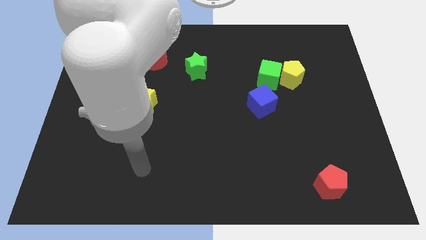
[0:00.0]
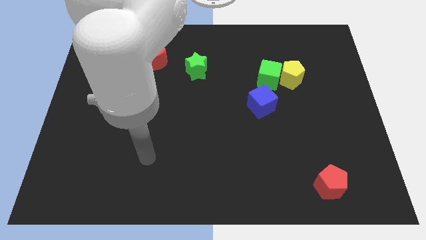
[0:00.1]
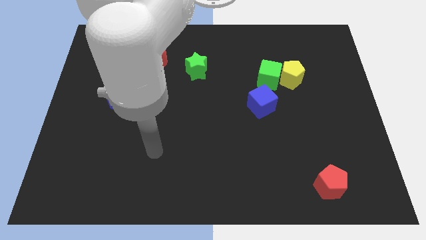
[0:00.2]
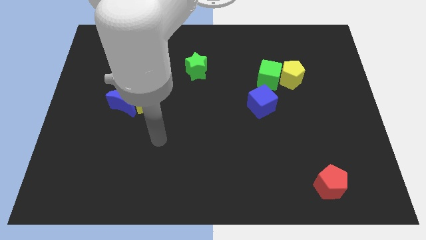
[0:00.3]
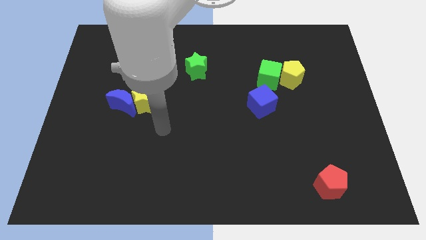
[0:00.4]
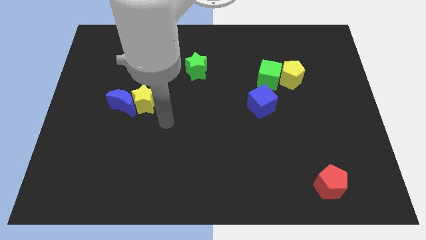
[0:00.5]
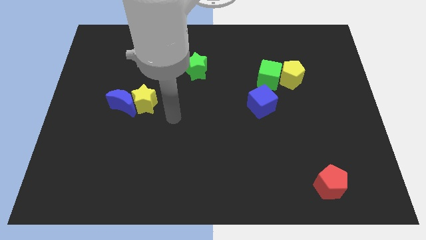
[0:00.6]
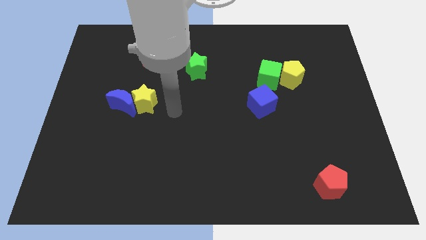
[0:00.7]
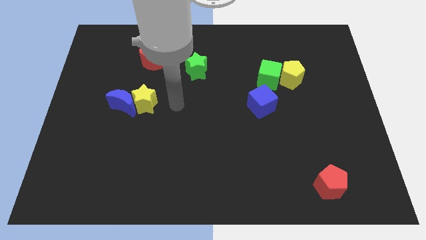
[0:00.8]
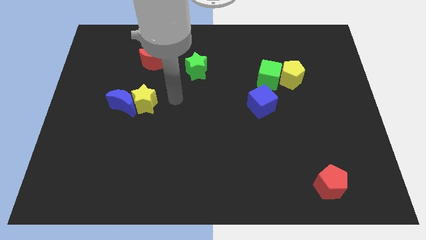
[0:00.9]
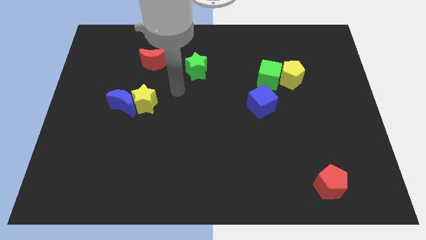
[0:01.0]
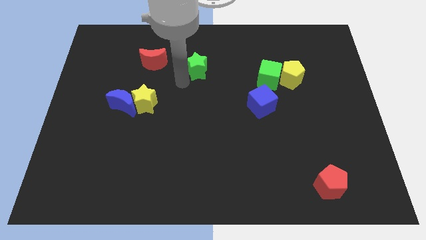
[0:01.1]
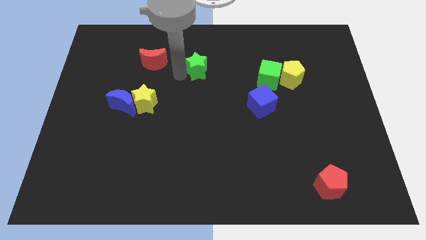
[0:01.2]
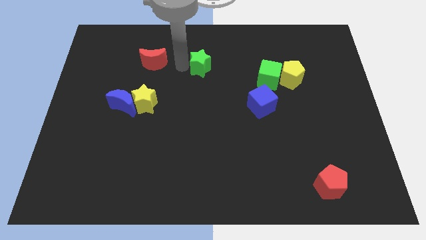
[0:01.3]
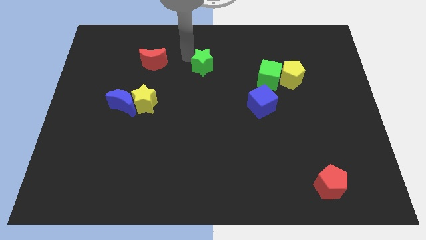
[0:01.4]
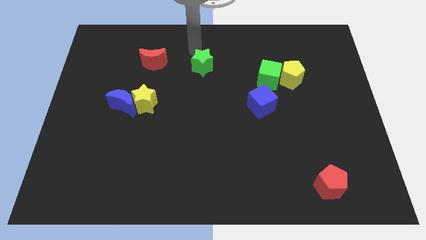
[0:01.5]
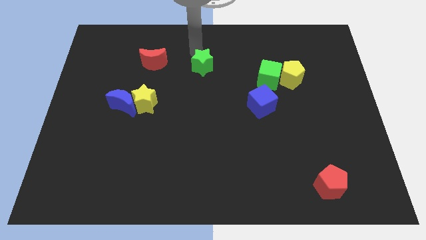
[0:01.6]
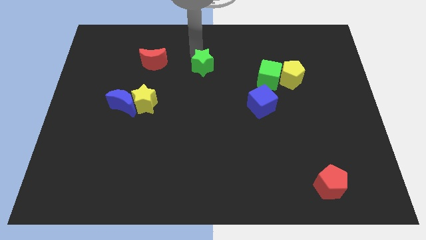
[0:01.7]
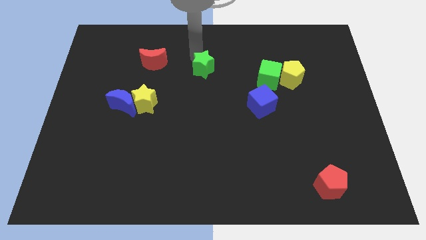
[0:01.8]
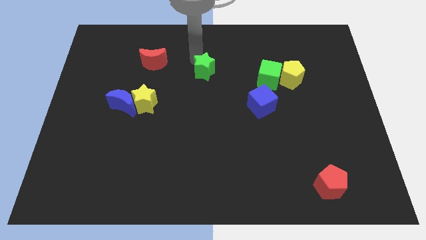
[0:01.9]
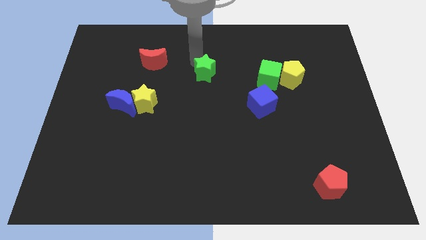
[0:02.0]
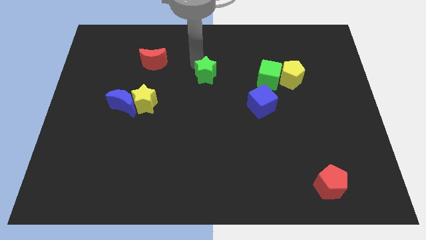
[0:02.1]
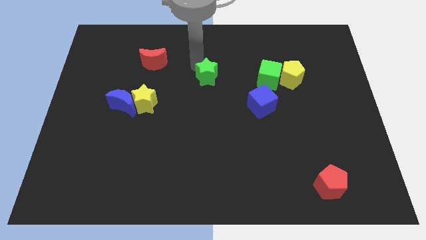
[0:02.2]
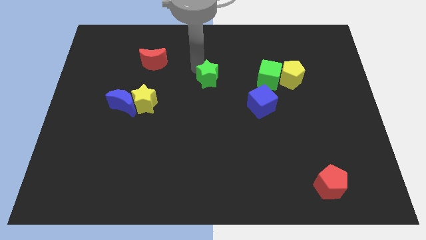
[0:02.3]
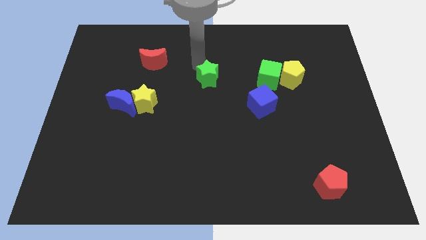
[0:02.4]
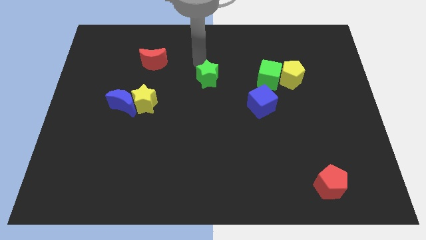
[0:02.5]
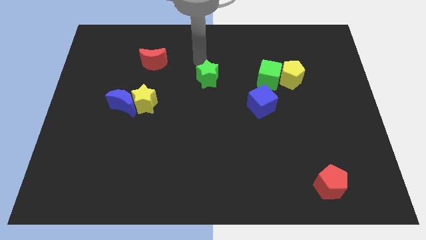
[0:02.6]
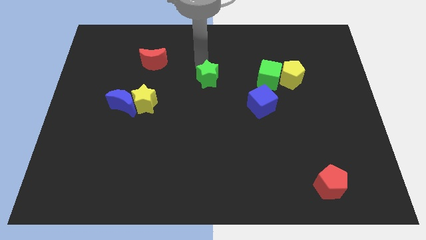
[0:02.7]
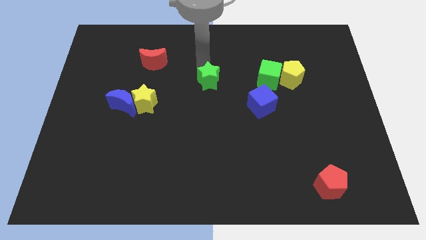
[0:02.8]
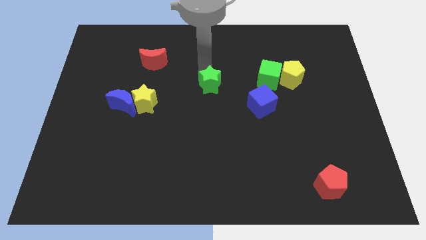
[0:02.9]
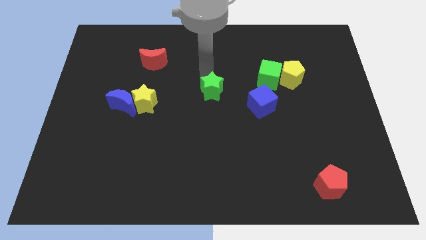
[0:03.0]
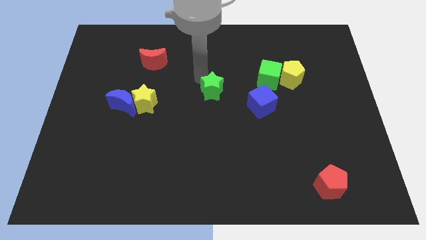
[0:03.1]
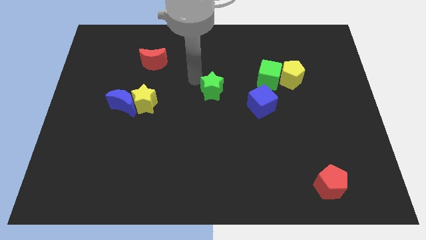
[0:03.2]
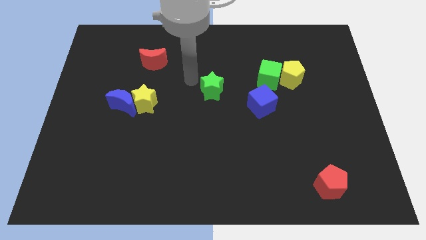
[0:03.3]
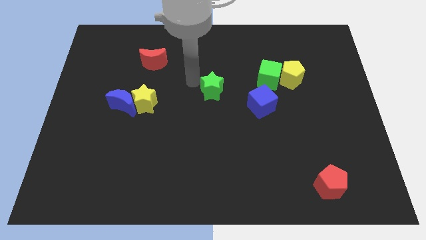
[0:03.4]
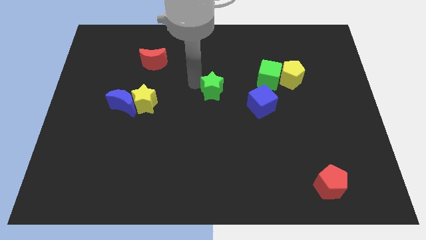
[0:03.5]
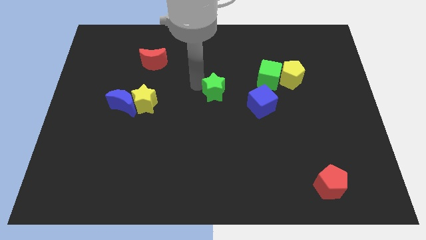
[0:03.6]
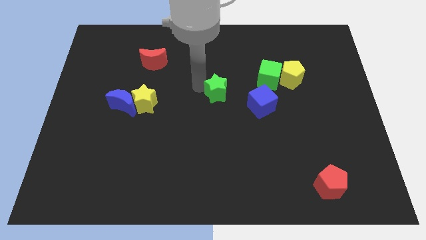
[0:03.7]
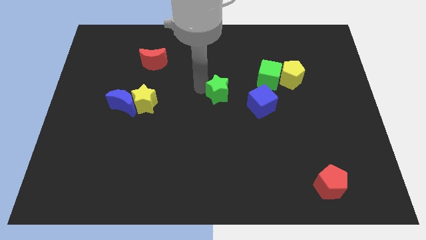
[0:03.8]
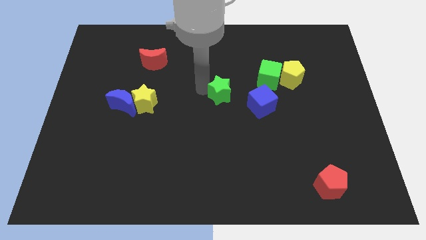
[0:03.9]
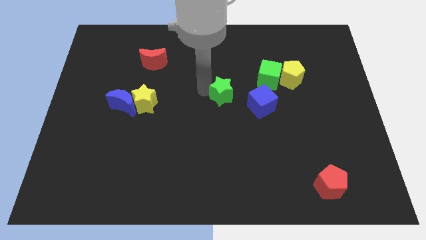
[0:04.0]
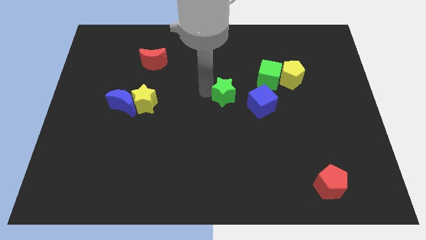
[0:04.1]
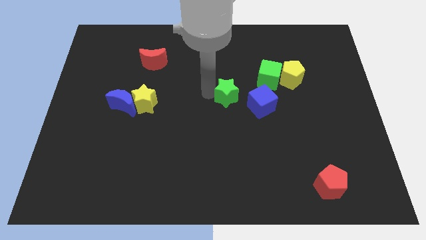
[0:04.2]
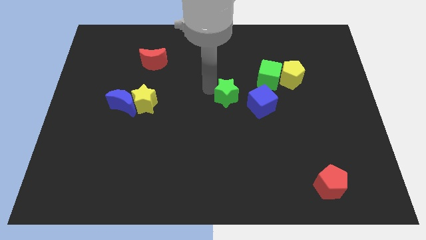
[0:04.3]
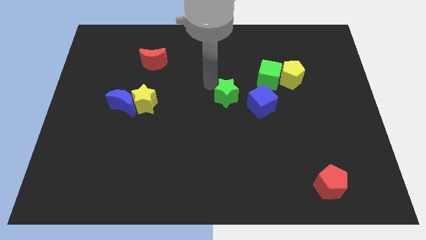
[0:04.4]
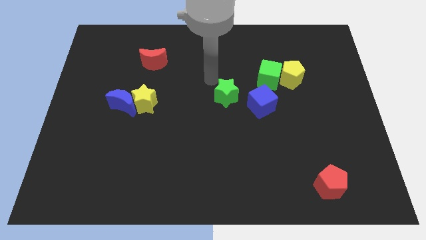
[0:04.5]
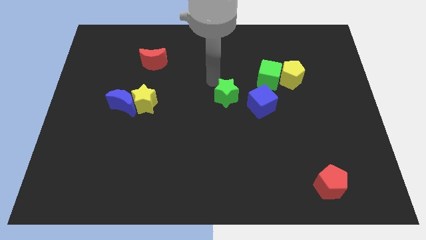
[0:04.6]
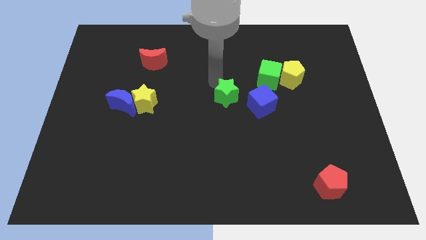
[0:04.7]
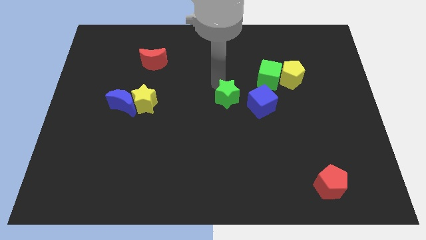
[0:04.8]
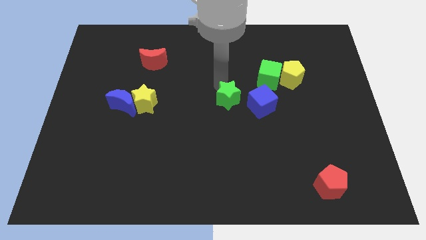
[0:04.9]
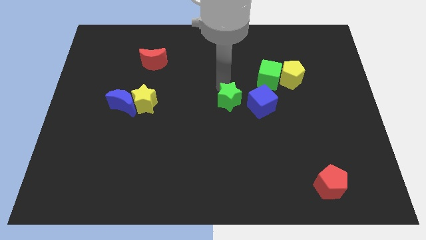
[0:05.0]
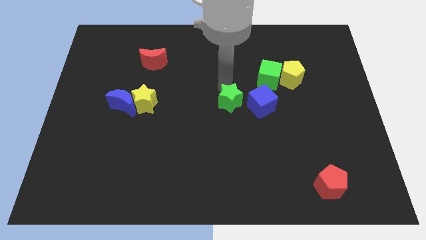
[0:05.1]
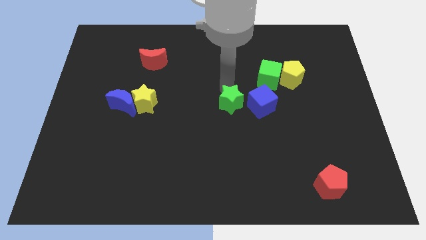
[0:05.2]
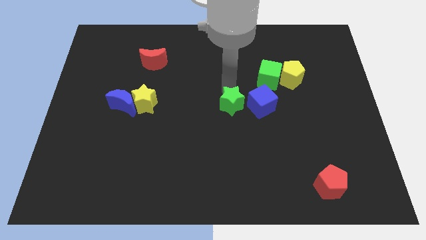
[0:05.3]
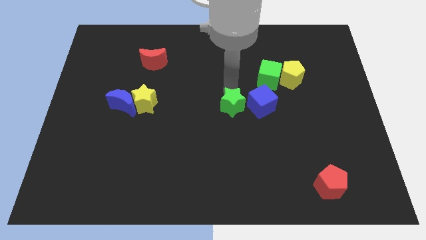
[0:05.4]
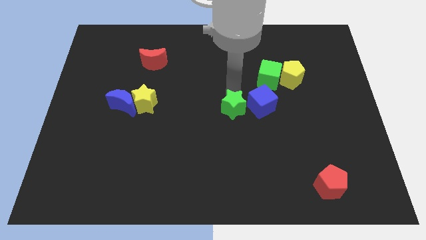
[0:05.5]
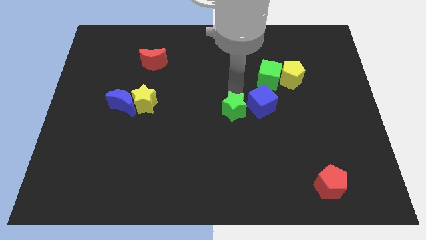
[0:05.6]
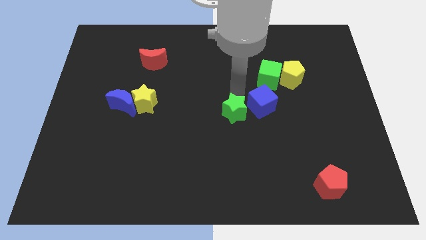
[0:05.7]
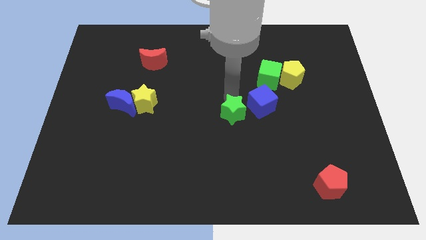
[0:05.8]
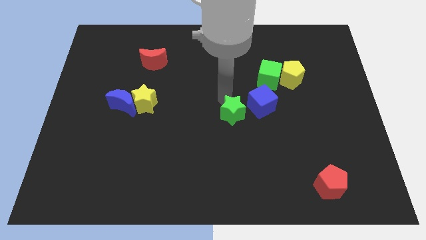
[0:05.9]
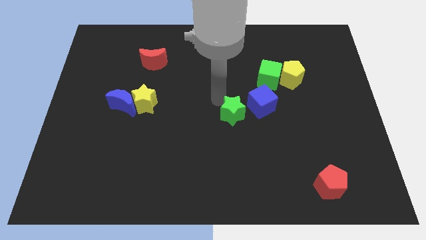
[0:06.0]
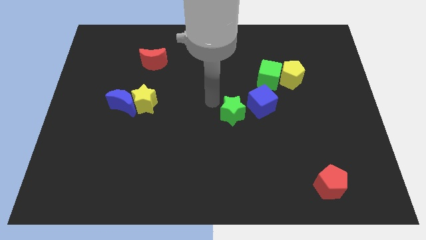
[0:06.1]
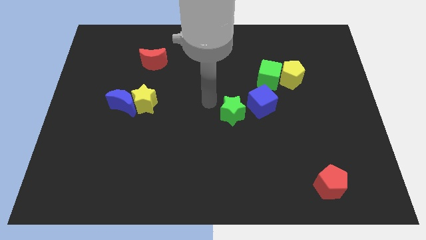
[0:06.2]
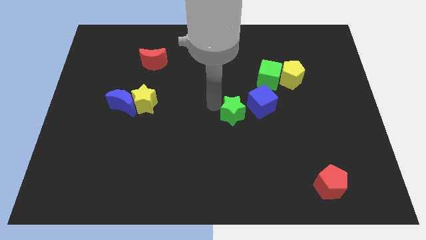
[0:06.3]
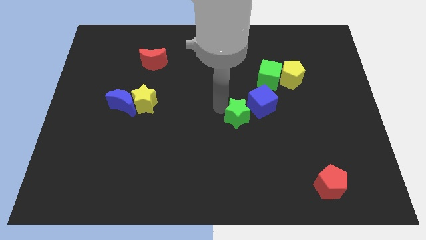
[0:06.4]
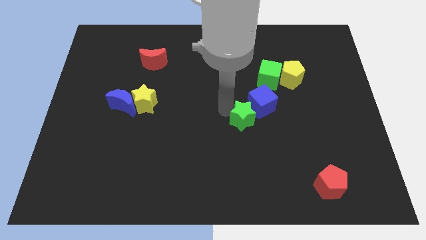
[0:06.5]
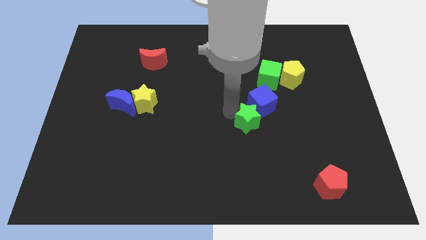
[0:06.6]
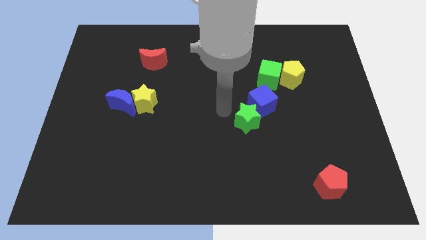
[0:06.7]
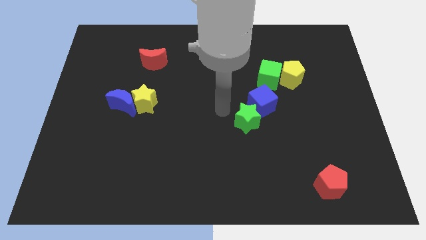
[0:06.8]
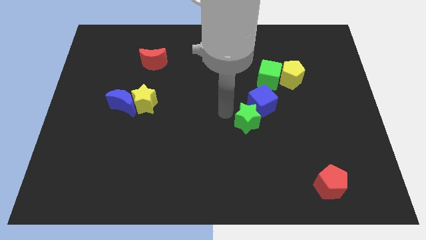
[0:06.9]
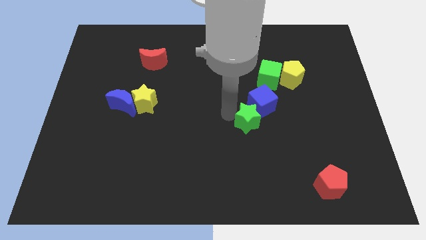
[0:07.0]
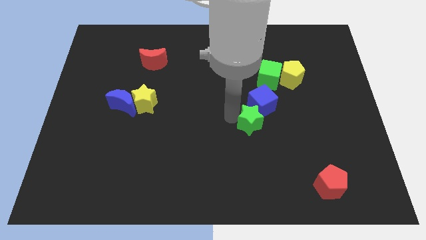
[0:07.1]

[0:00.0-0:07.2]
move the green star downwards and right

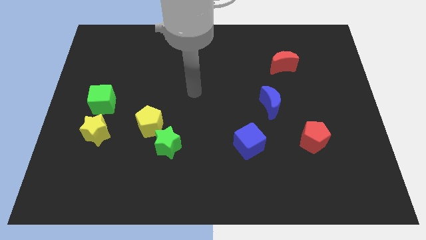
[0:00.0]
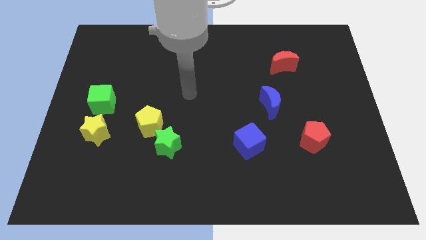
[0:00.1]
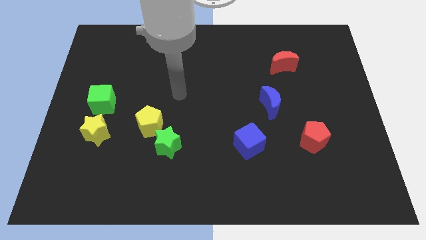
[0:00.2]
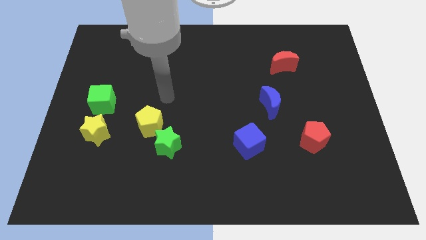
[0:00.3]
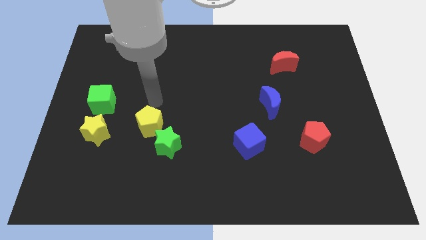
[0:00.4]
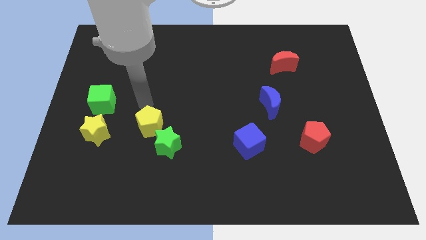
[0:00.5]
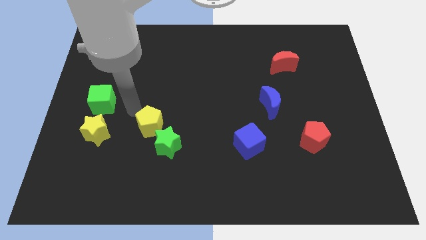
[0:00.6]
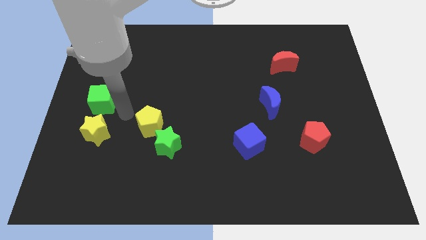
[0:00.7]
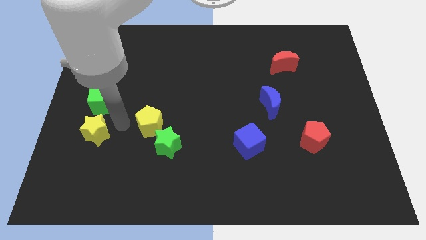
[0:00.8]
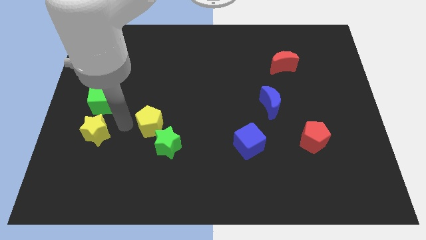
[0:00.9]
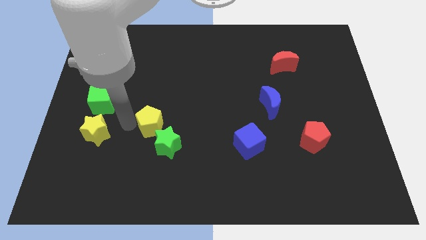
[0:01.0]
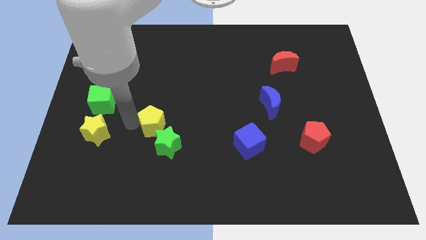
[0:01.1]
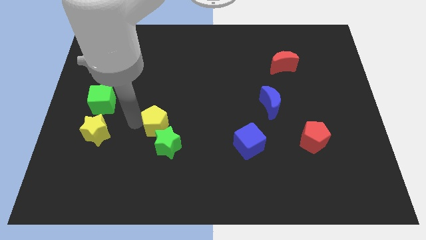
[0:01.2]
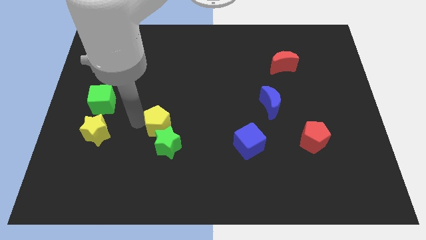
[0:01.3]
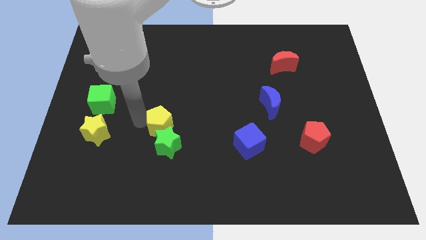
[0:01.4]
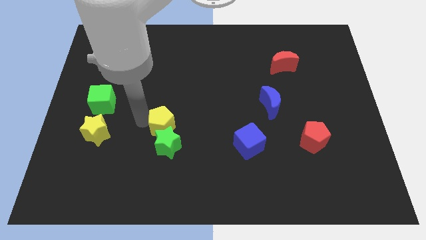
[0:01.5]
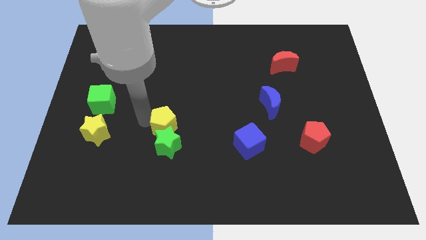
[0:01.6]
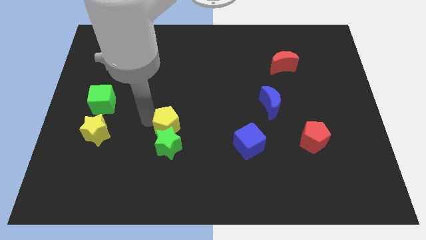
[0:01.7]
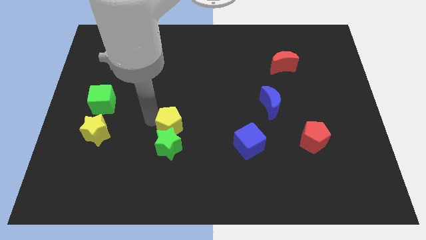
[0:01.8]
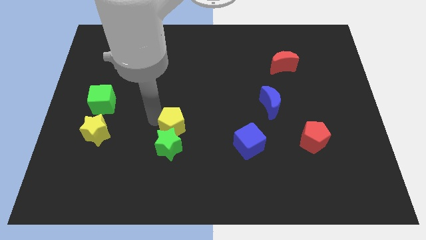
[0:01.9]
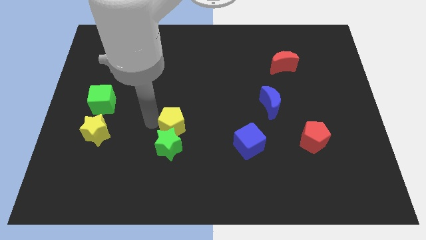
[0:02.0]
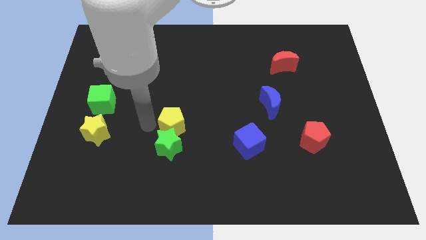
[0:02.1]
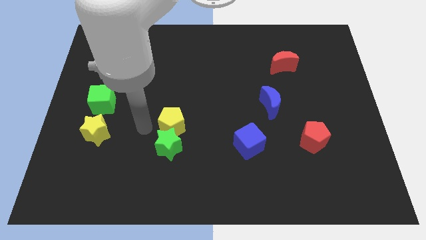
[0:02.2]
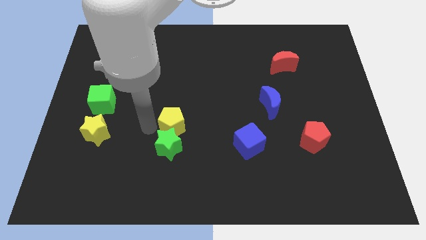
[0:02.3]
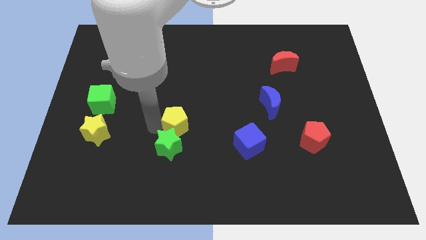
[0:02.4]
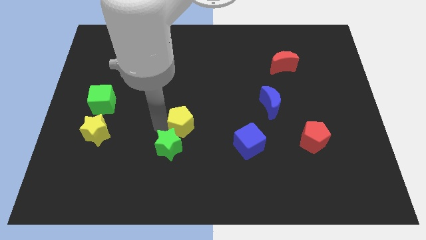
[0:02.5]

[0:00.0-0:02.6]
slide the yellow pentagon right a little
